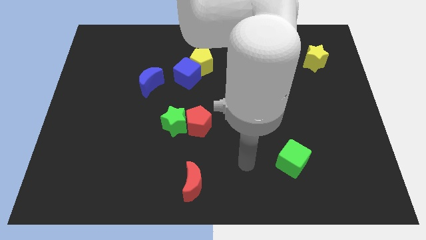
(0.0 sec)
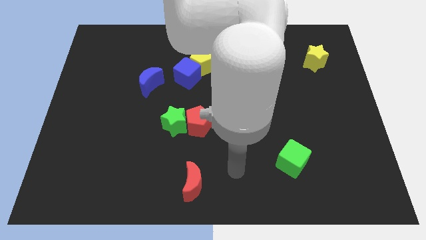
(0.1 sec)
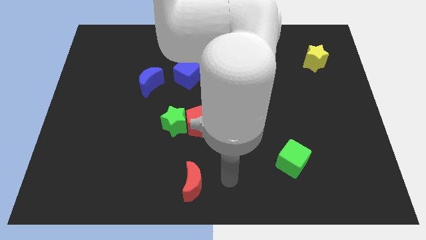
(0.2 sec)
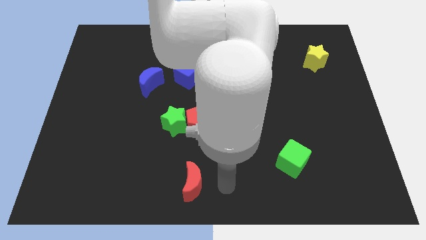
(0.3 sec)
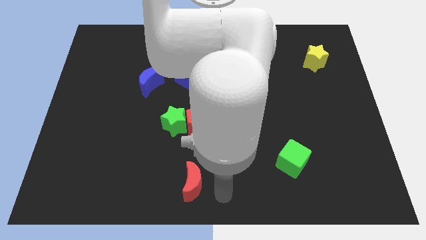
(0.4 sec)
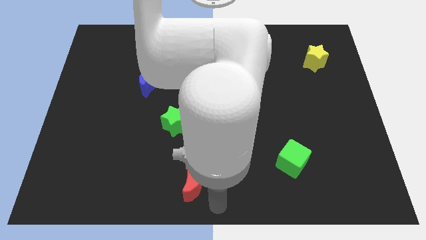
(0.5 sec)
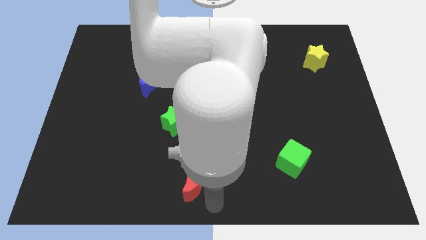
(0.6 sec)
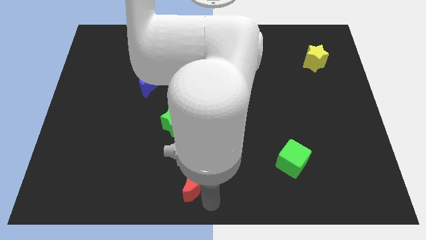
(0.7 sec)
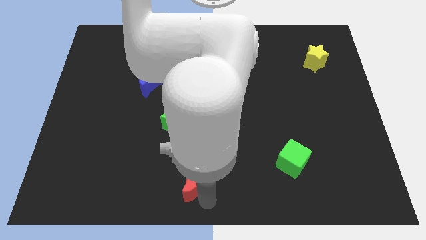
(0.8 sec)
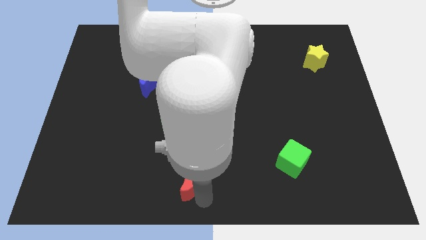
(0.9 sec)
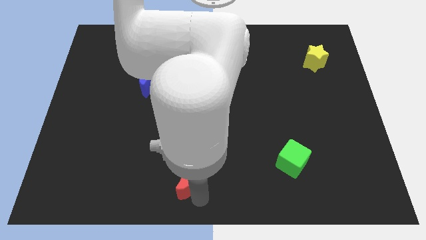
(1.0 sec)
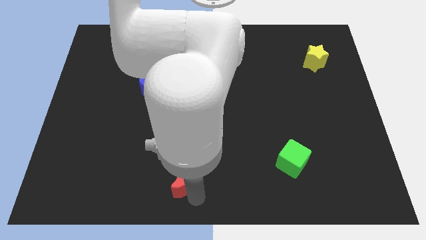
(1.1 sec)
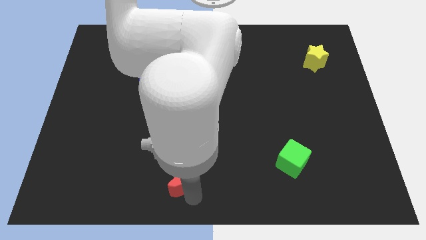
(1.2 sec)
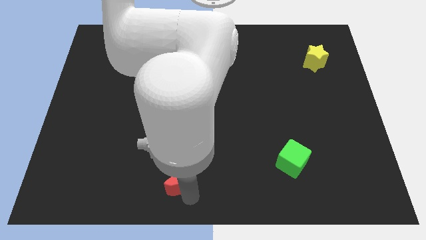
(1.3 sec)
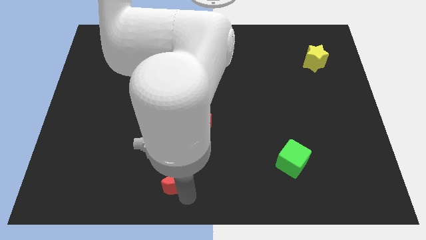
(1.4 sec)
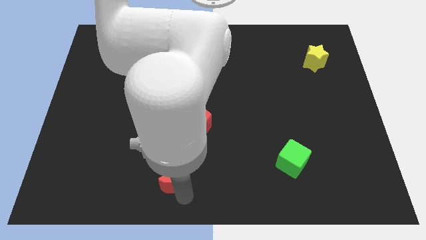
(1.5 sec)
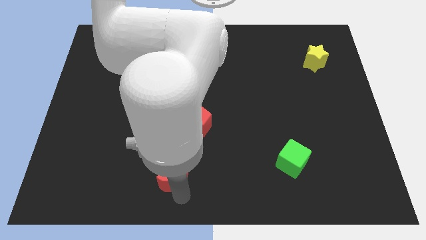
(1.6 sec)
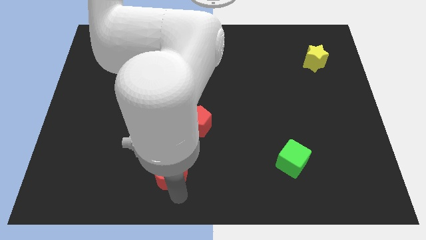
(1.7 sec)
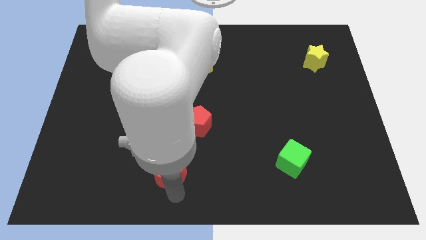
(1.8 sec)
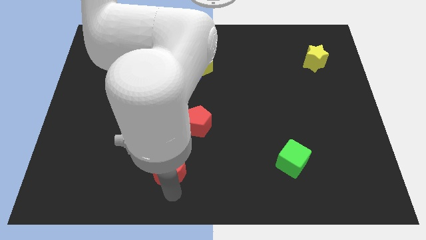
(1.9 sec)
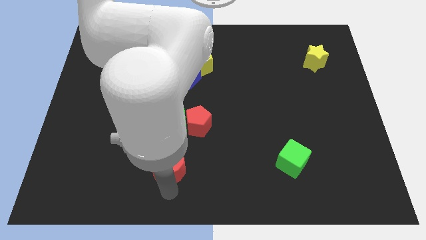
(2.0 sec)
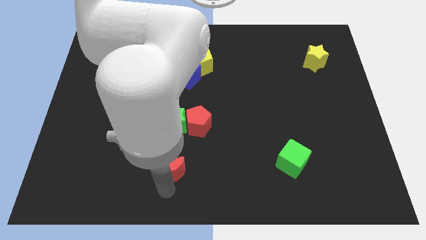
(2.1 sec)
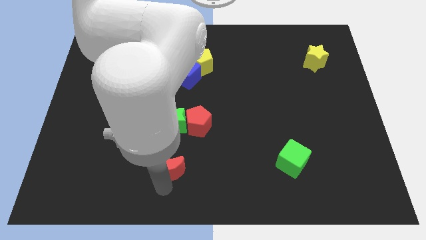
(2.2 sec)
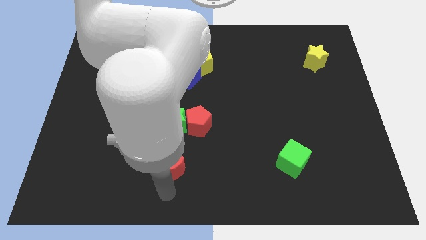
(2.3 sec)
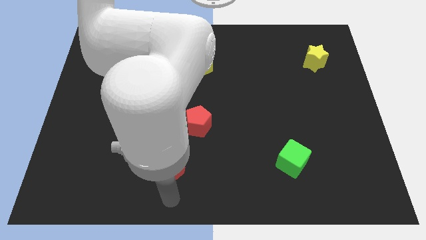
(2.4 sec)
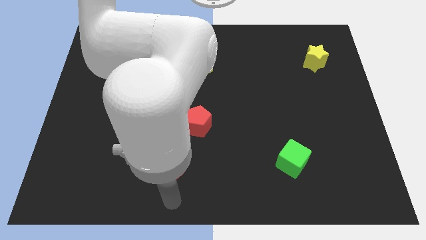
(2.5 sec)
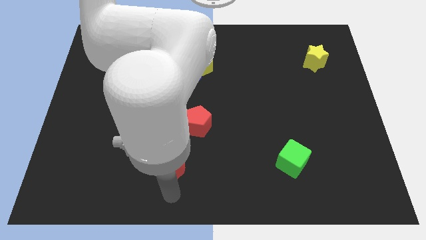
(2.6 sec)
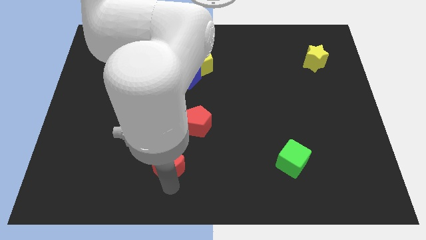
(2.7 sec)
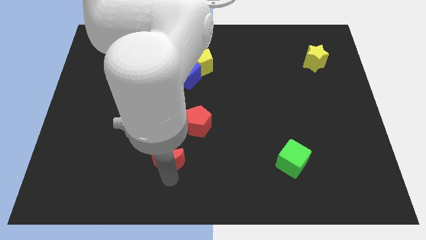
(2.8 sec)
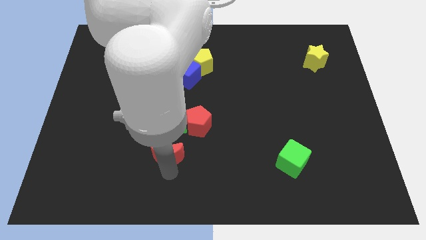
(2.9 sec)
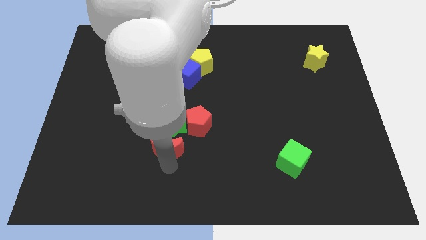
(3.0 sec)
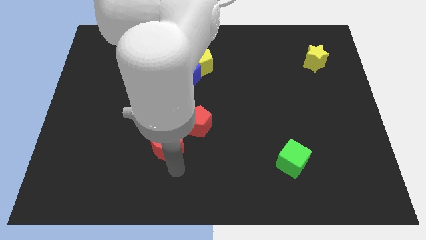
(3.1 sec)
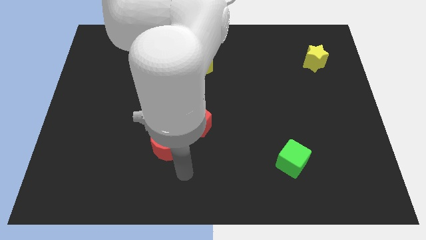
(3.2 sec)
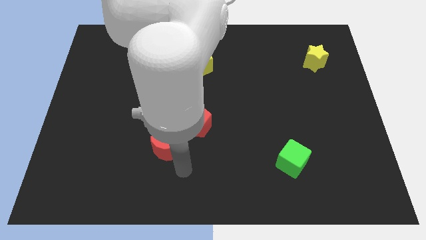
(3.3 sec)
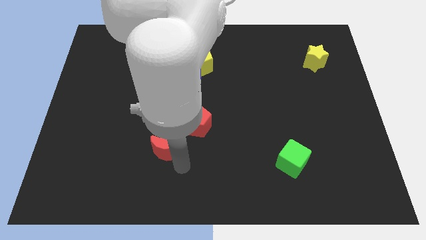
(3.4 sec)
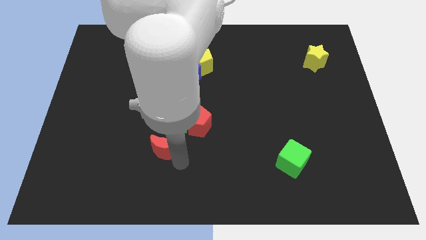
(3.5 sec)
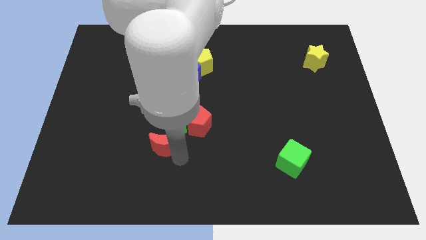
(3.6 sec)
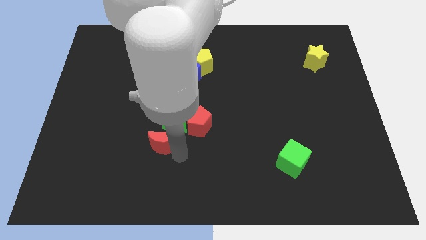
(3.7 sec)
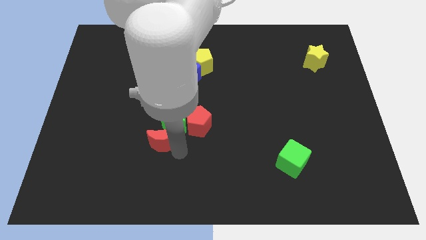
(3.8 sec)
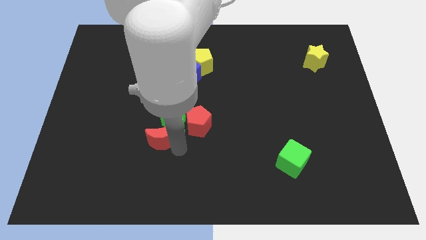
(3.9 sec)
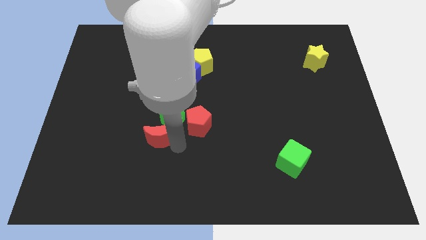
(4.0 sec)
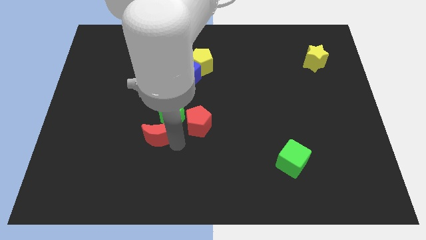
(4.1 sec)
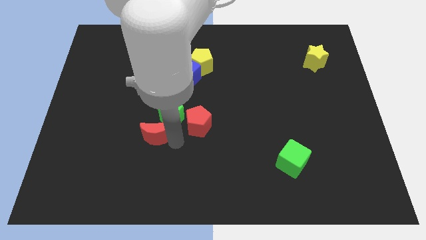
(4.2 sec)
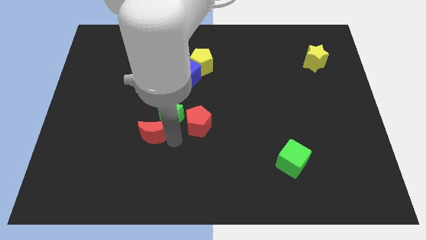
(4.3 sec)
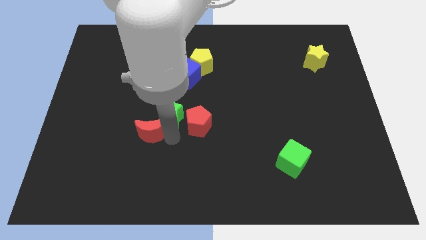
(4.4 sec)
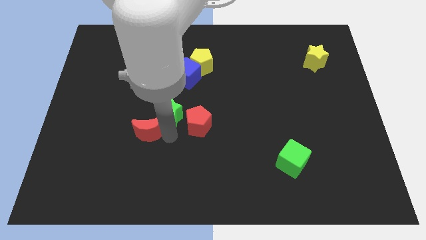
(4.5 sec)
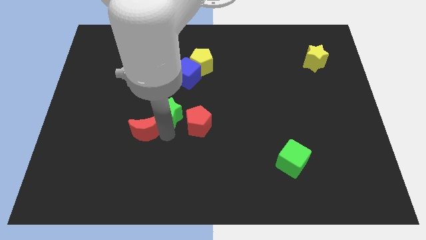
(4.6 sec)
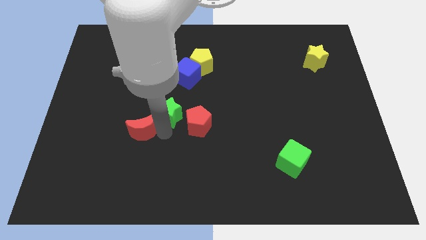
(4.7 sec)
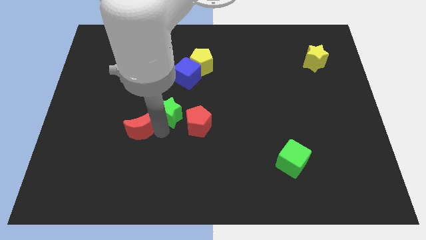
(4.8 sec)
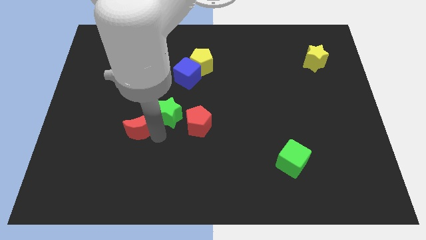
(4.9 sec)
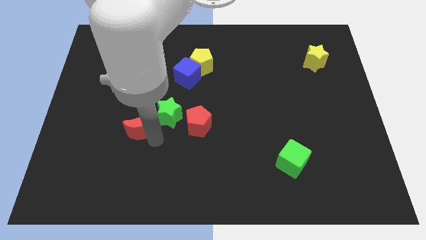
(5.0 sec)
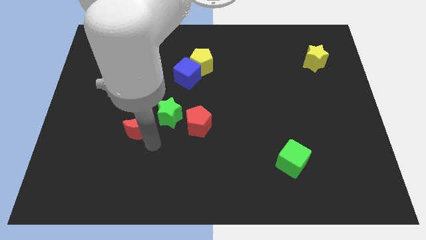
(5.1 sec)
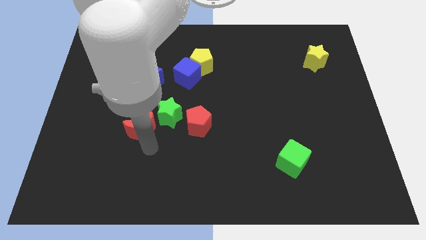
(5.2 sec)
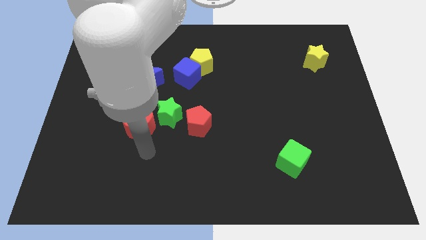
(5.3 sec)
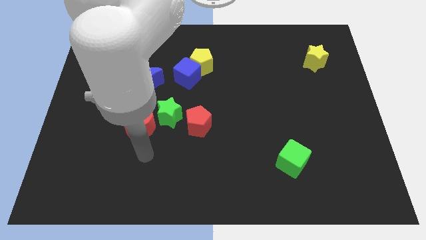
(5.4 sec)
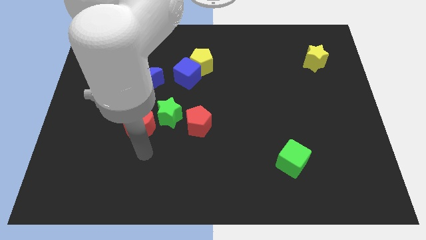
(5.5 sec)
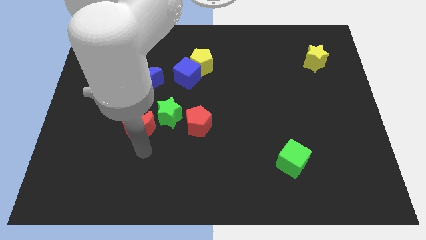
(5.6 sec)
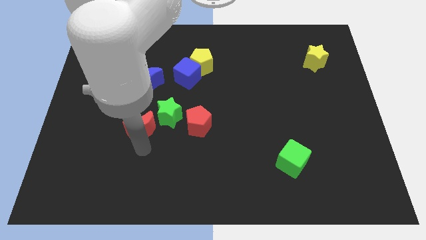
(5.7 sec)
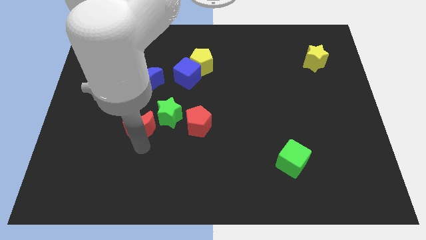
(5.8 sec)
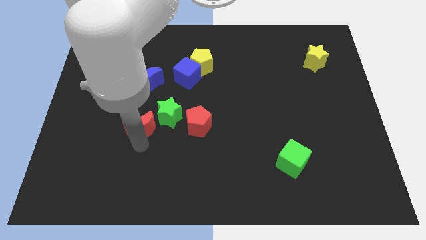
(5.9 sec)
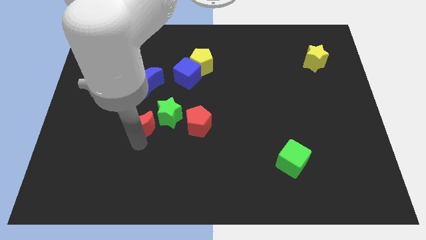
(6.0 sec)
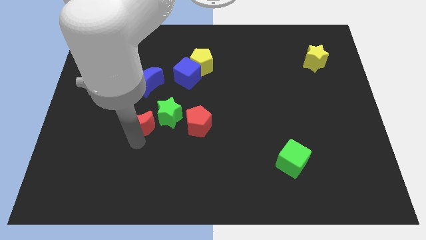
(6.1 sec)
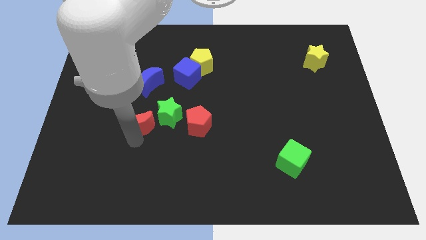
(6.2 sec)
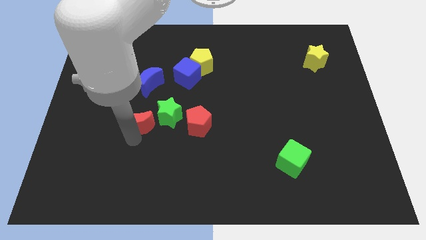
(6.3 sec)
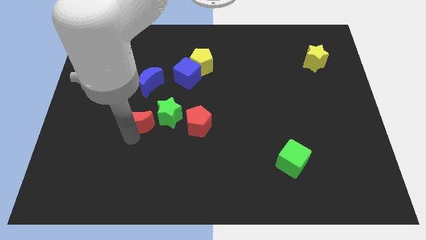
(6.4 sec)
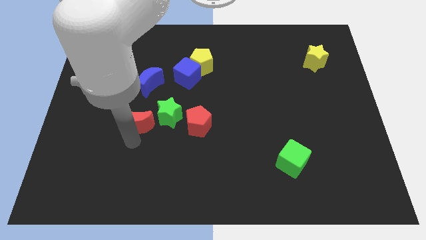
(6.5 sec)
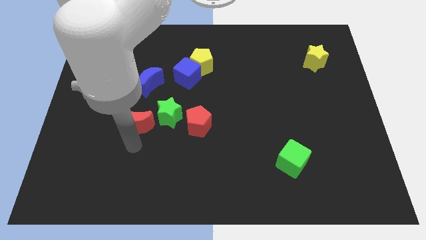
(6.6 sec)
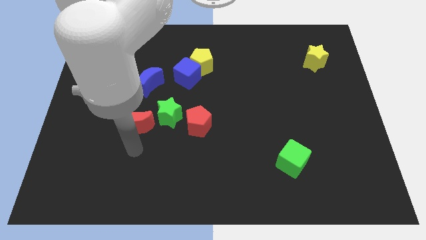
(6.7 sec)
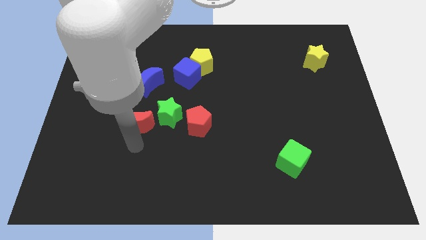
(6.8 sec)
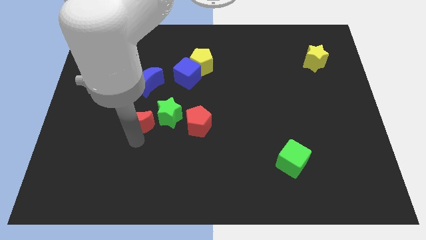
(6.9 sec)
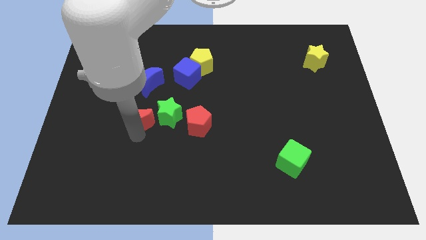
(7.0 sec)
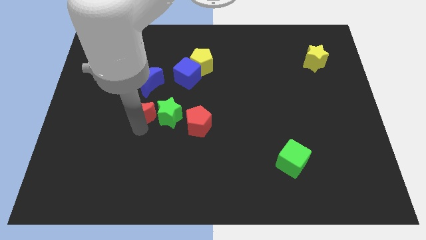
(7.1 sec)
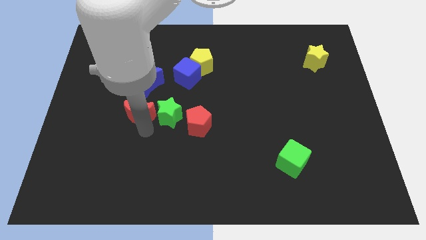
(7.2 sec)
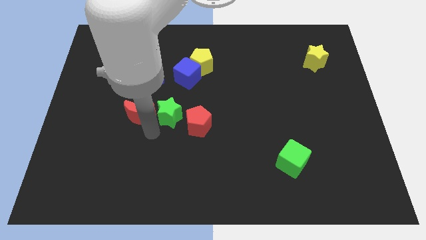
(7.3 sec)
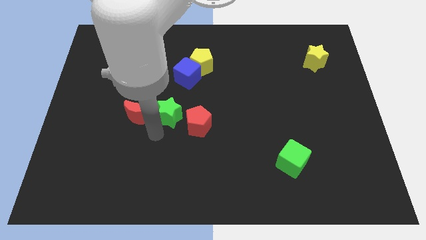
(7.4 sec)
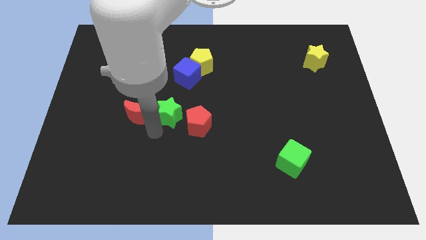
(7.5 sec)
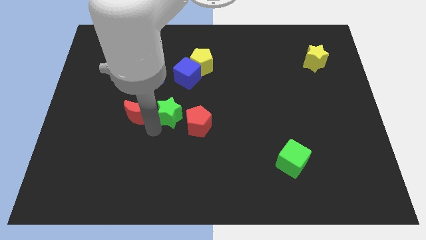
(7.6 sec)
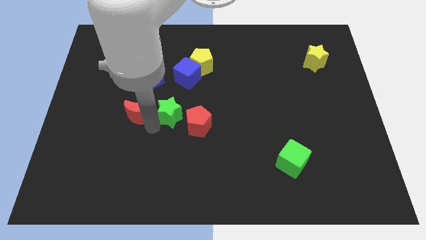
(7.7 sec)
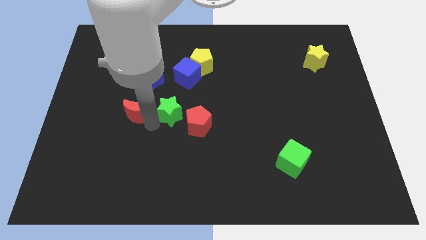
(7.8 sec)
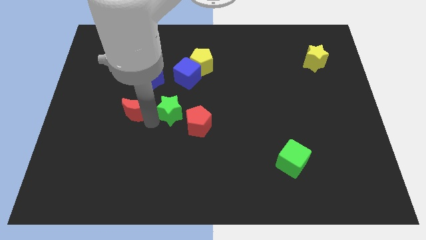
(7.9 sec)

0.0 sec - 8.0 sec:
slide the red moon diagonally down and to the left of the blue moon
